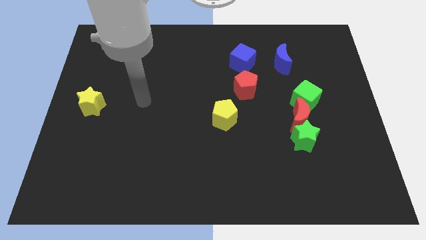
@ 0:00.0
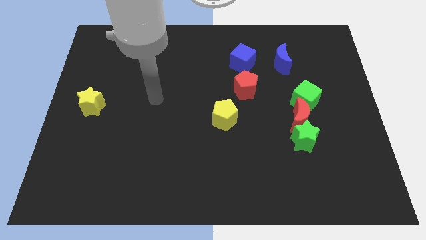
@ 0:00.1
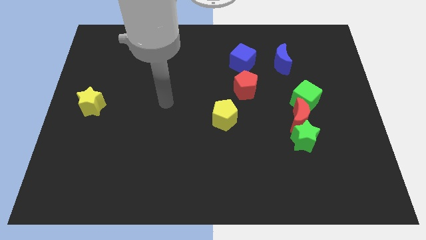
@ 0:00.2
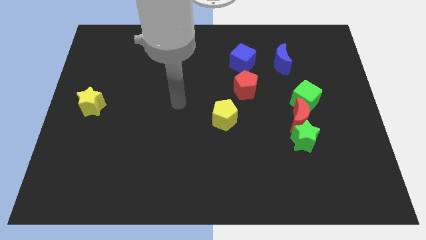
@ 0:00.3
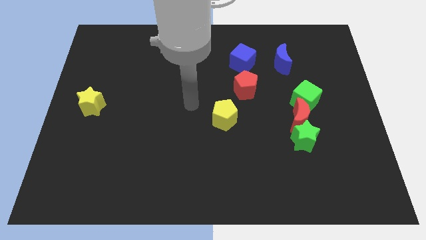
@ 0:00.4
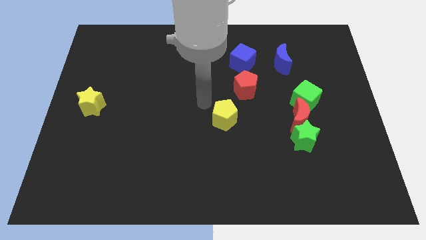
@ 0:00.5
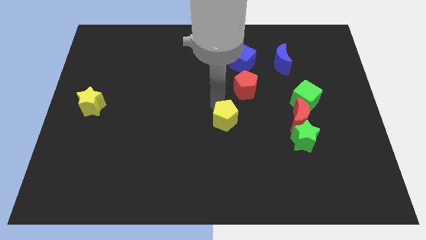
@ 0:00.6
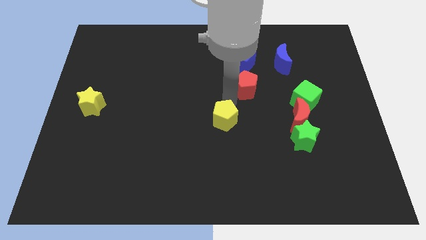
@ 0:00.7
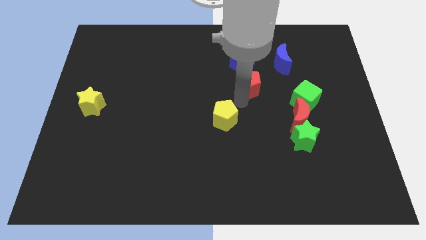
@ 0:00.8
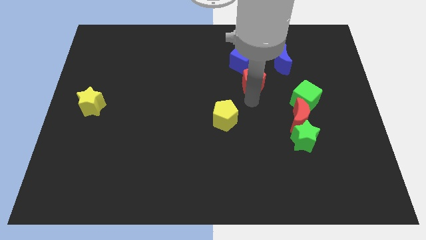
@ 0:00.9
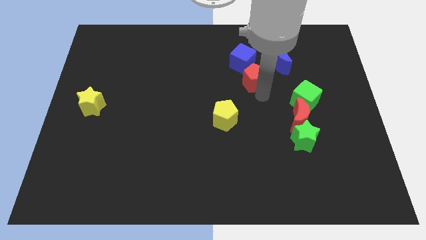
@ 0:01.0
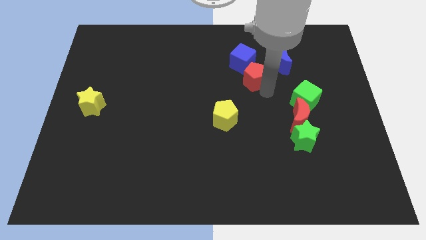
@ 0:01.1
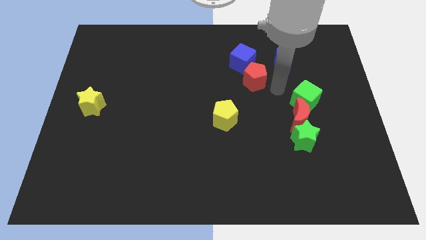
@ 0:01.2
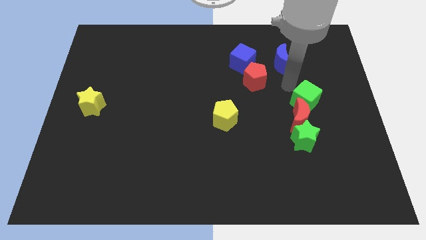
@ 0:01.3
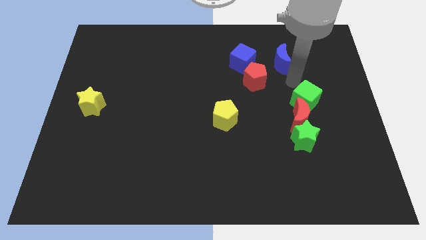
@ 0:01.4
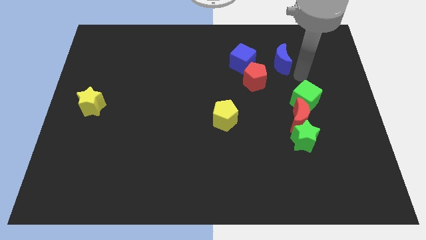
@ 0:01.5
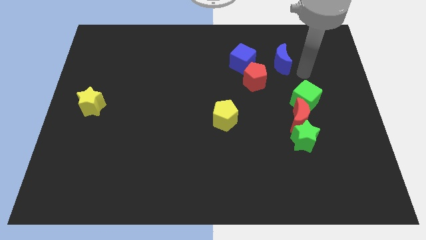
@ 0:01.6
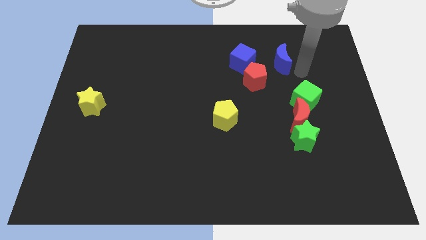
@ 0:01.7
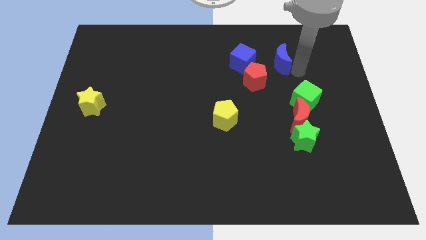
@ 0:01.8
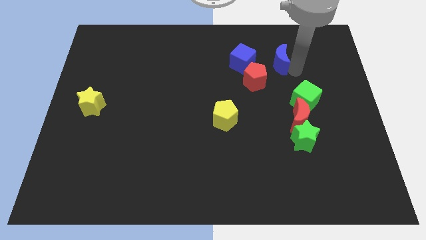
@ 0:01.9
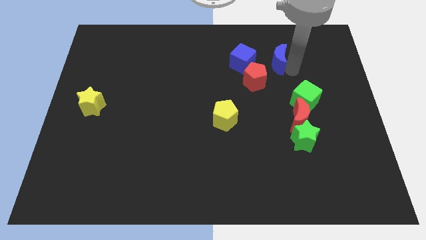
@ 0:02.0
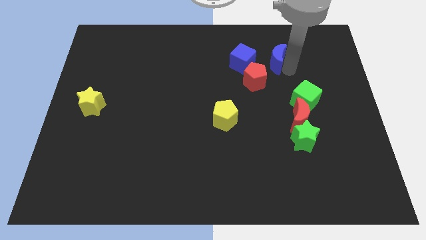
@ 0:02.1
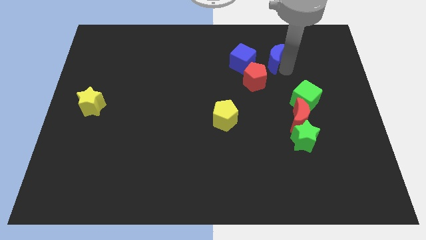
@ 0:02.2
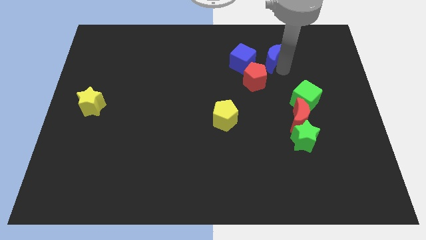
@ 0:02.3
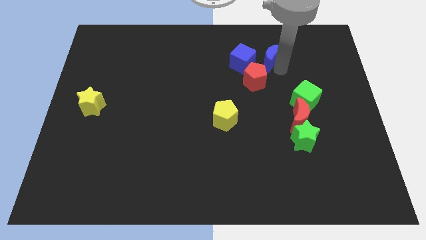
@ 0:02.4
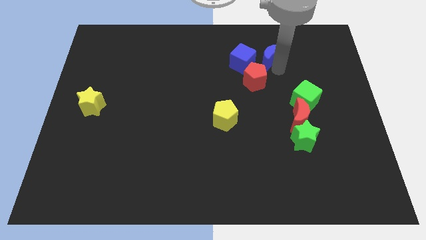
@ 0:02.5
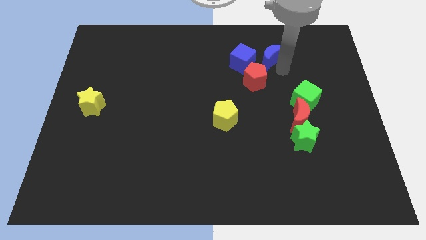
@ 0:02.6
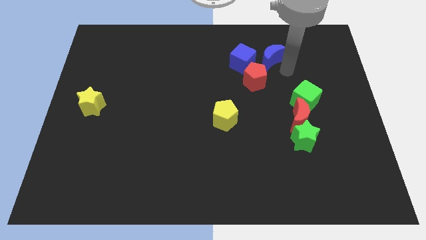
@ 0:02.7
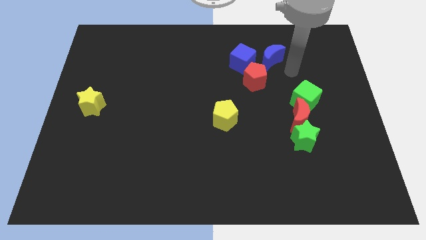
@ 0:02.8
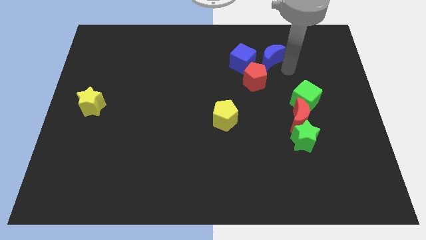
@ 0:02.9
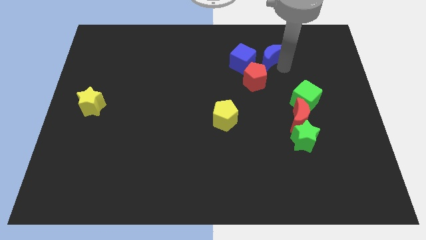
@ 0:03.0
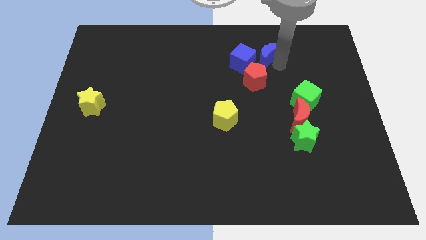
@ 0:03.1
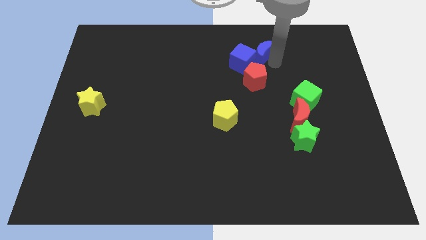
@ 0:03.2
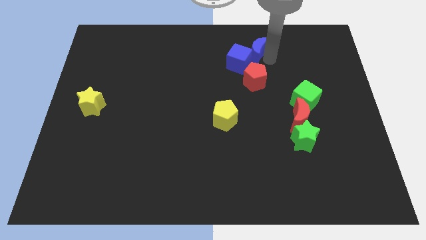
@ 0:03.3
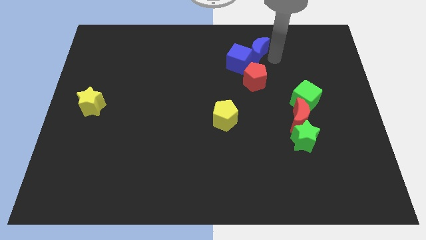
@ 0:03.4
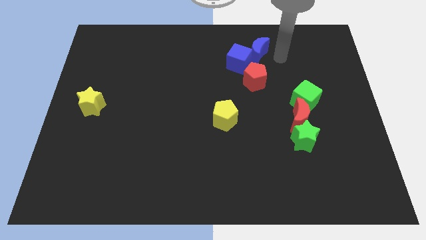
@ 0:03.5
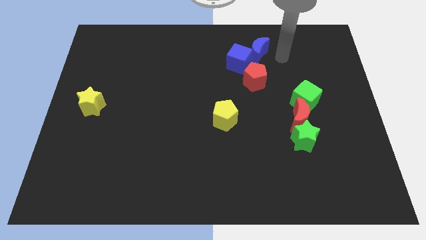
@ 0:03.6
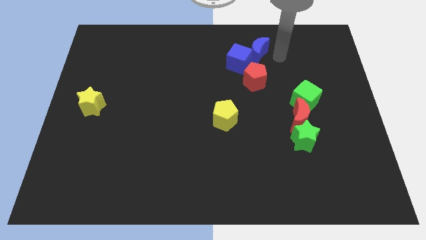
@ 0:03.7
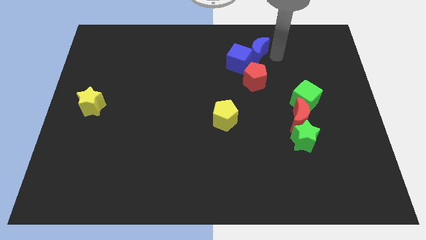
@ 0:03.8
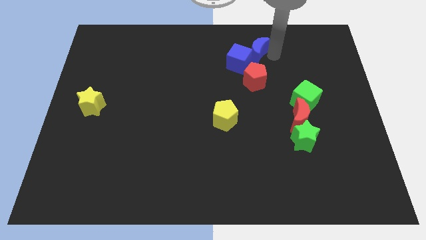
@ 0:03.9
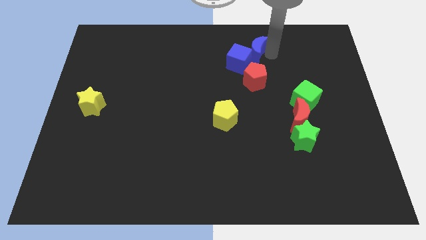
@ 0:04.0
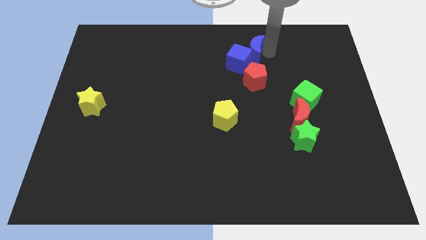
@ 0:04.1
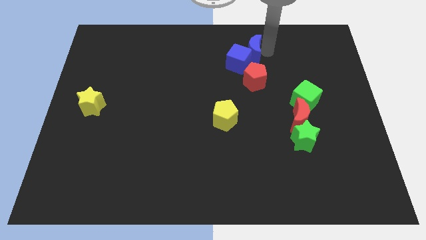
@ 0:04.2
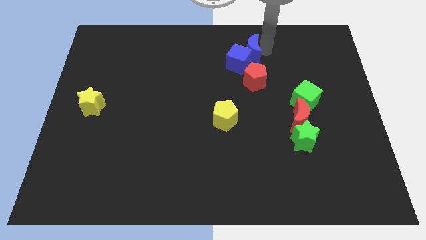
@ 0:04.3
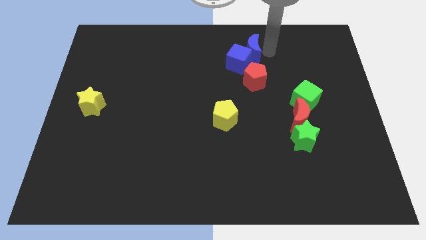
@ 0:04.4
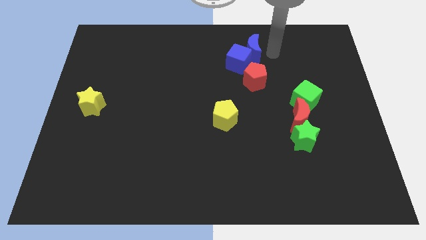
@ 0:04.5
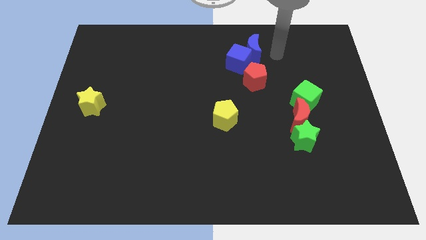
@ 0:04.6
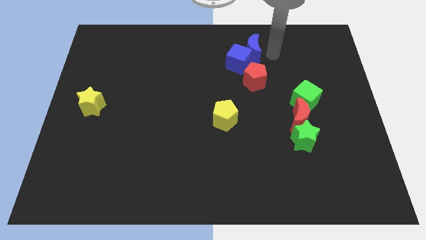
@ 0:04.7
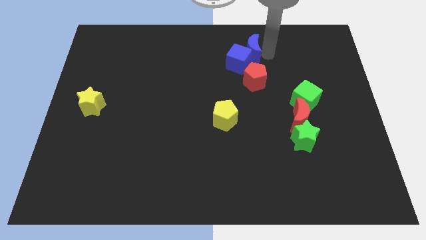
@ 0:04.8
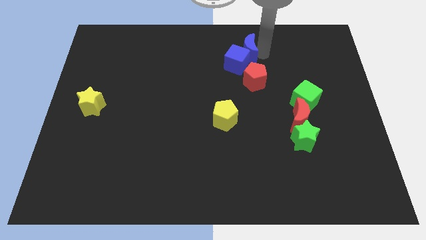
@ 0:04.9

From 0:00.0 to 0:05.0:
push the blue moon a bit left

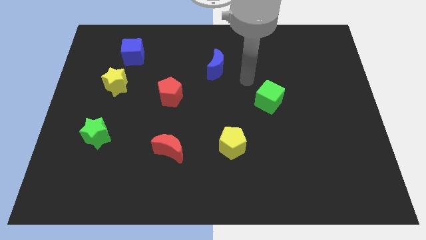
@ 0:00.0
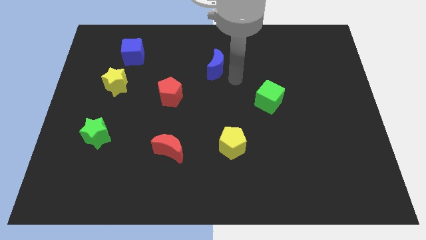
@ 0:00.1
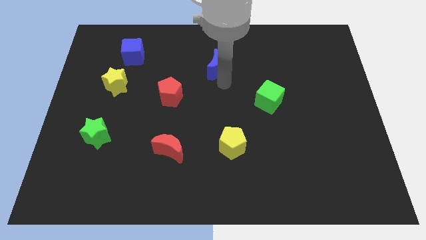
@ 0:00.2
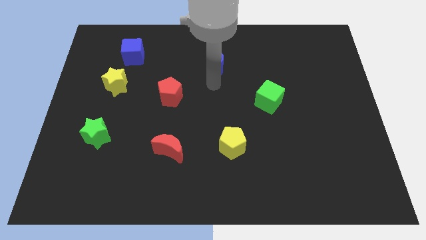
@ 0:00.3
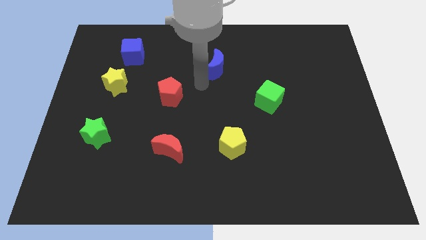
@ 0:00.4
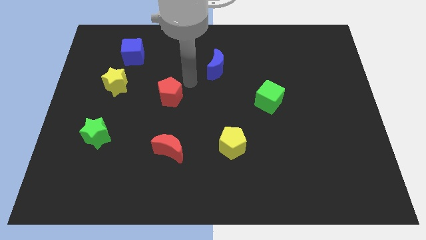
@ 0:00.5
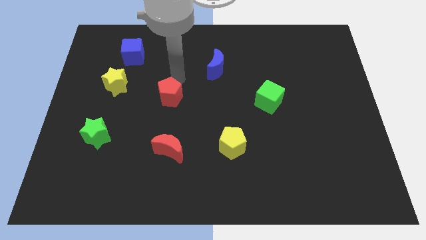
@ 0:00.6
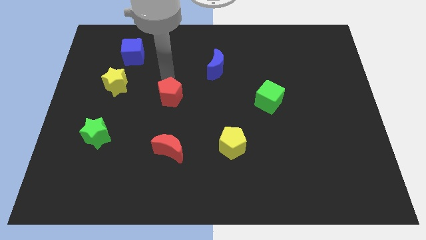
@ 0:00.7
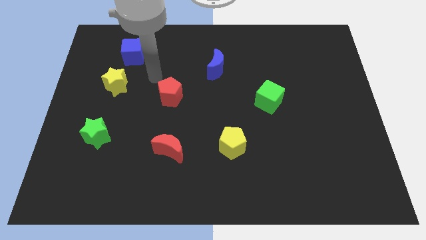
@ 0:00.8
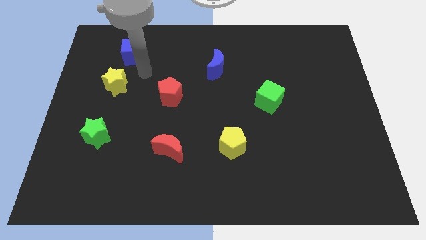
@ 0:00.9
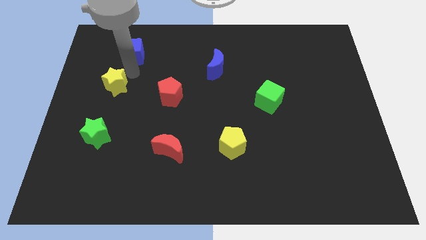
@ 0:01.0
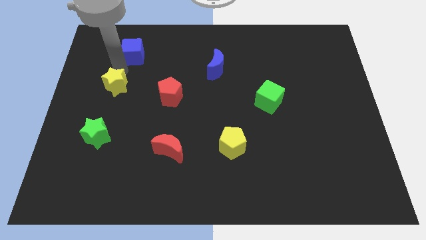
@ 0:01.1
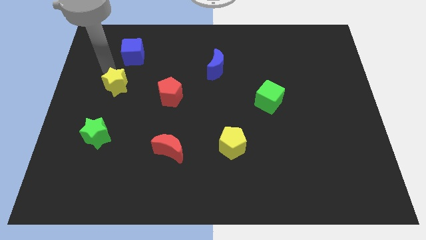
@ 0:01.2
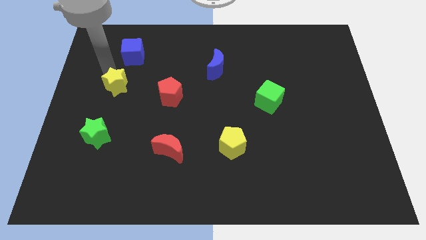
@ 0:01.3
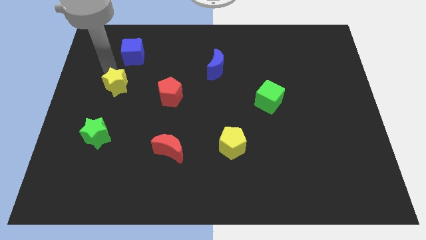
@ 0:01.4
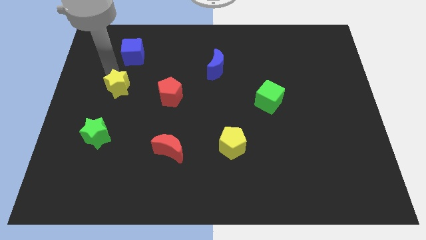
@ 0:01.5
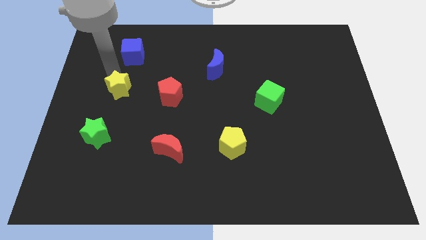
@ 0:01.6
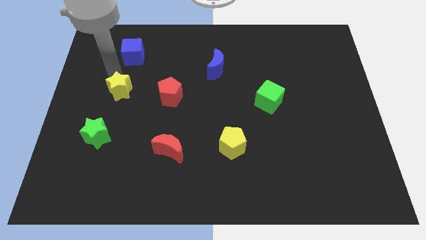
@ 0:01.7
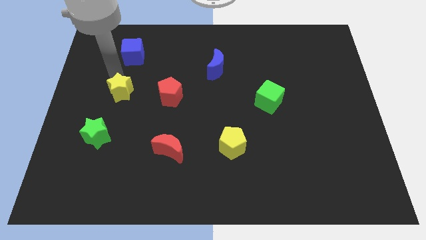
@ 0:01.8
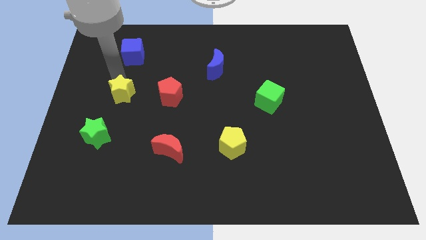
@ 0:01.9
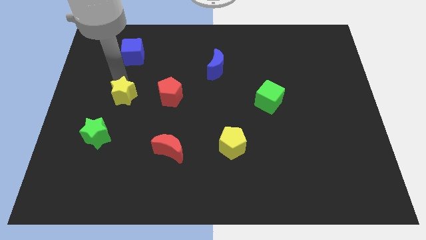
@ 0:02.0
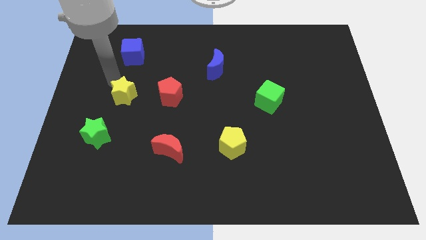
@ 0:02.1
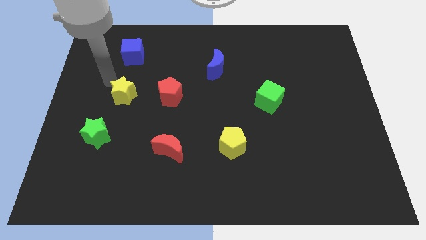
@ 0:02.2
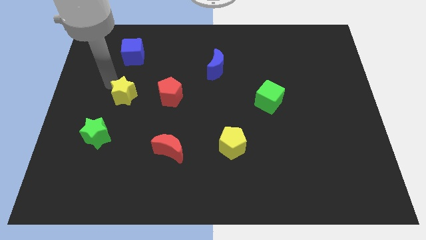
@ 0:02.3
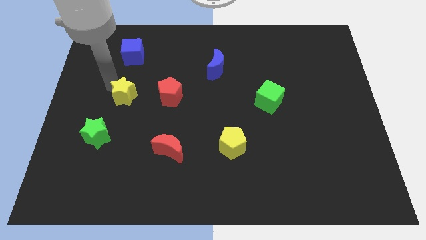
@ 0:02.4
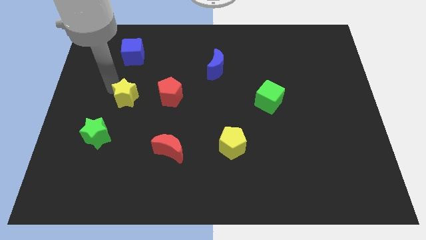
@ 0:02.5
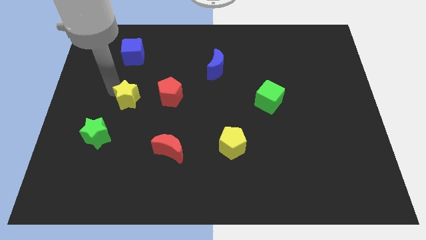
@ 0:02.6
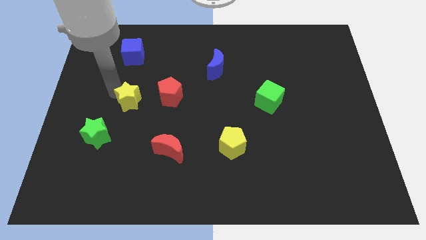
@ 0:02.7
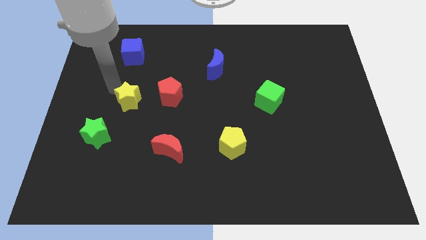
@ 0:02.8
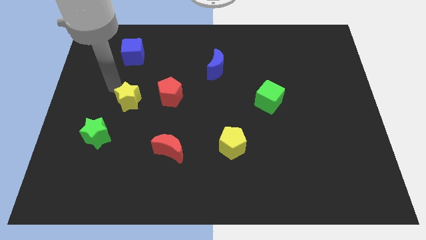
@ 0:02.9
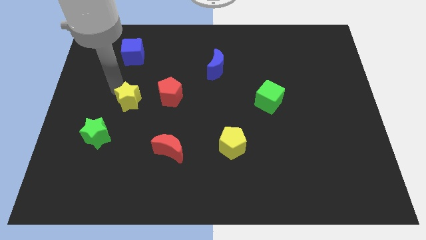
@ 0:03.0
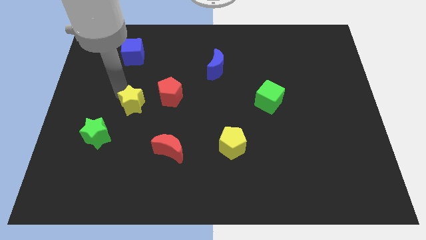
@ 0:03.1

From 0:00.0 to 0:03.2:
slightly move the yellow star downwards and then right
